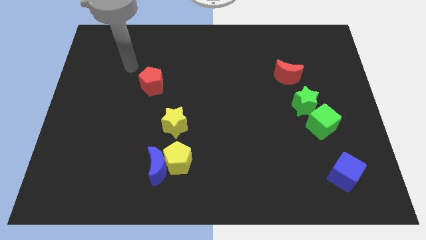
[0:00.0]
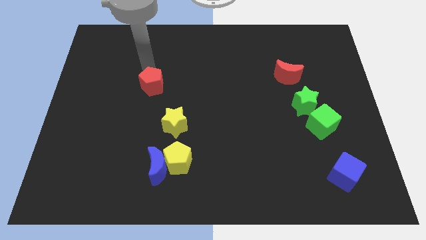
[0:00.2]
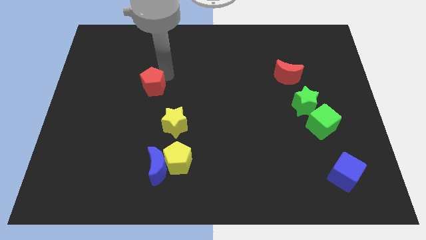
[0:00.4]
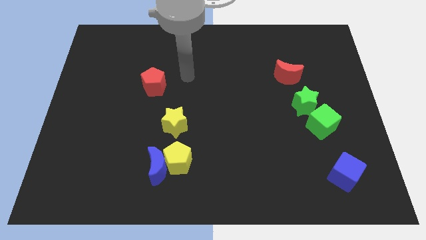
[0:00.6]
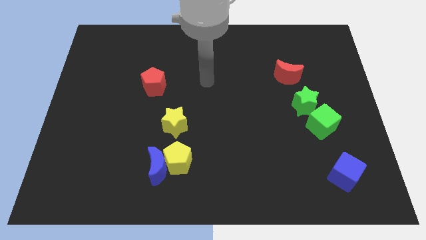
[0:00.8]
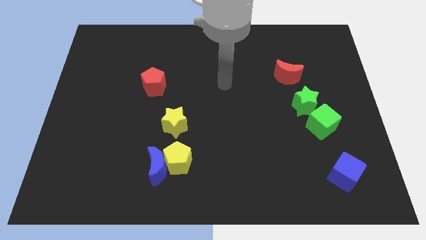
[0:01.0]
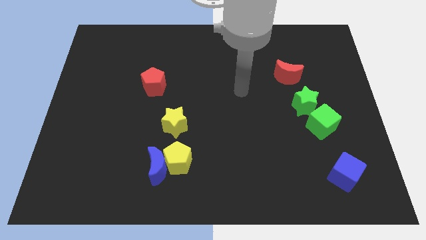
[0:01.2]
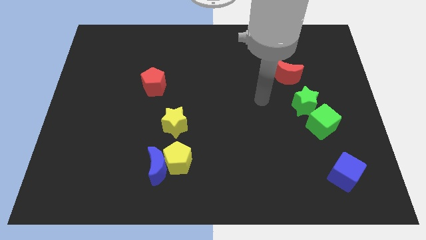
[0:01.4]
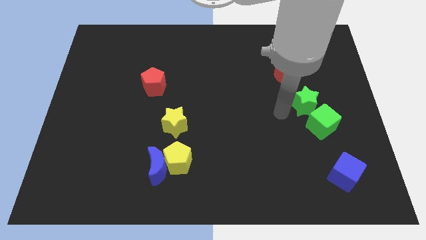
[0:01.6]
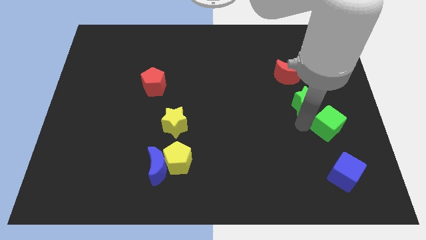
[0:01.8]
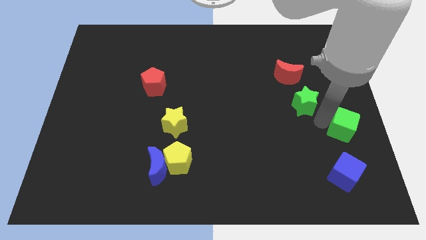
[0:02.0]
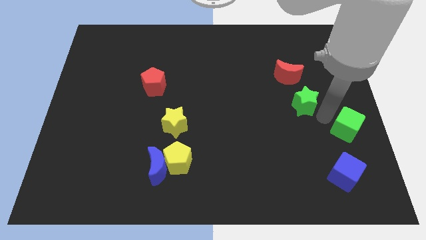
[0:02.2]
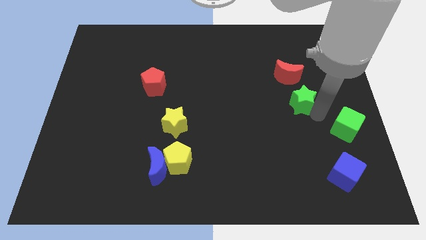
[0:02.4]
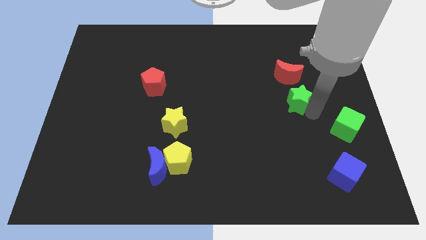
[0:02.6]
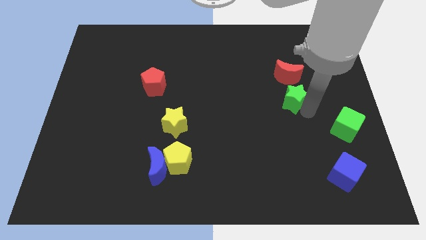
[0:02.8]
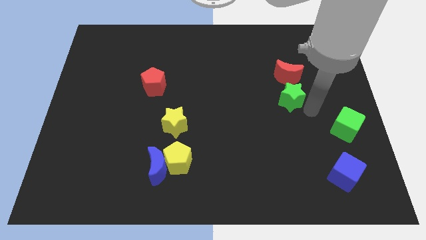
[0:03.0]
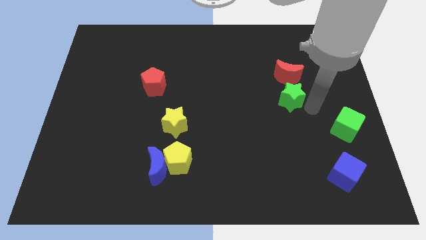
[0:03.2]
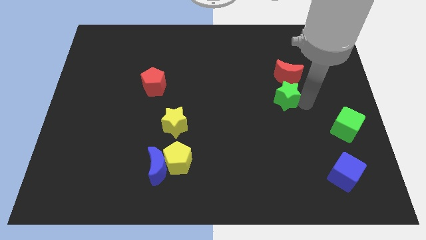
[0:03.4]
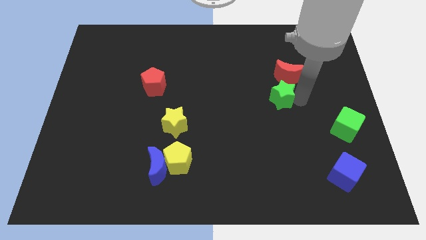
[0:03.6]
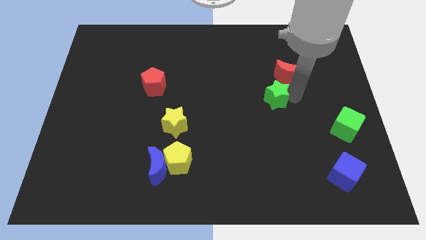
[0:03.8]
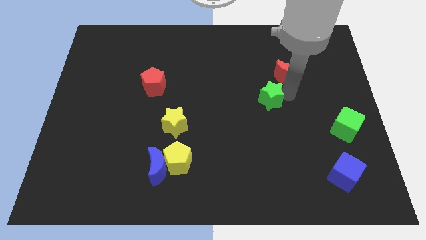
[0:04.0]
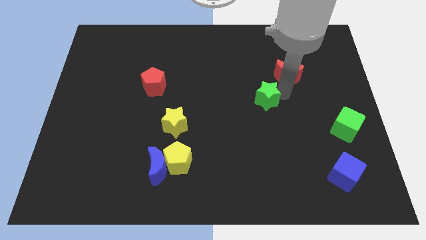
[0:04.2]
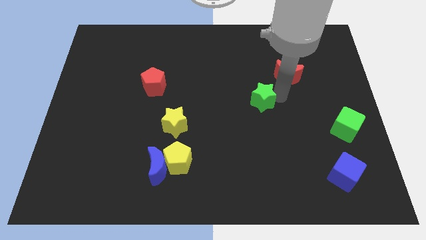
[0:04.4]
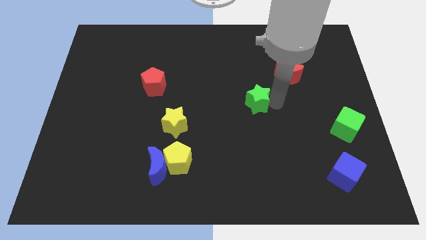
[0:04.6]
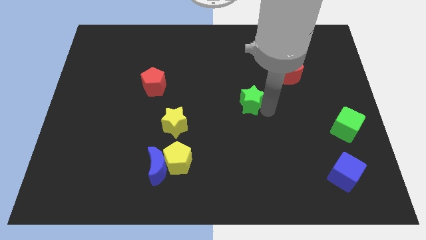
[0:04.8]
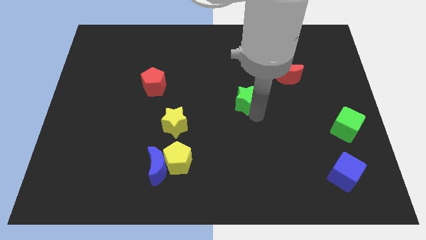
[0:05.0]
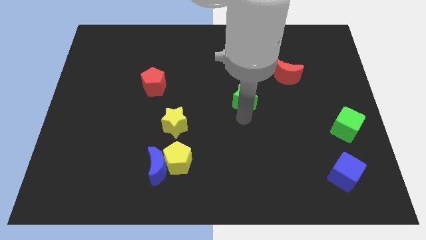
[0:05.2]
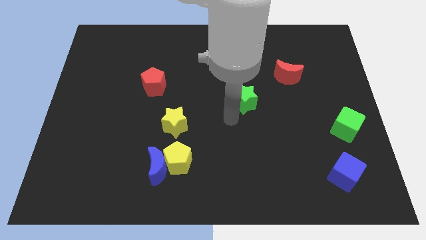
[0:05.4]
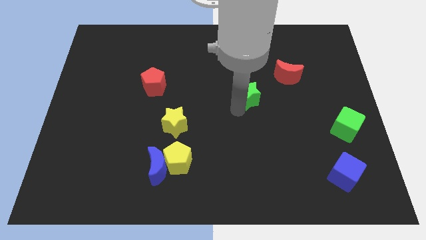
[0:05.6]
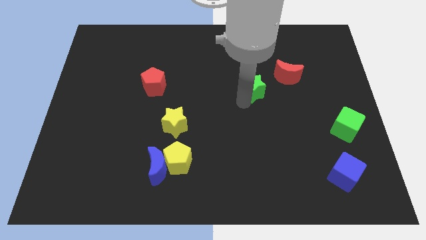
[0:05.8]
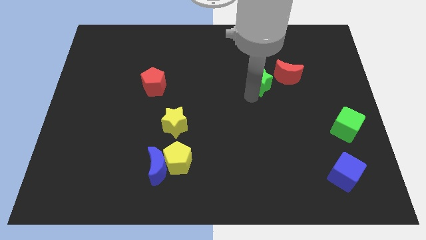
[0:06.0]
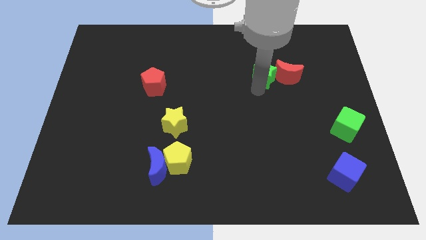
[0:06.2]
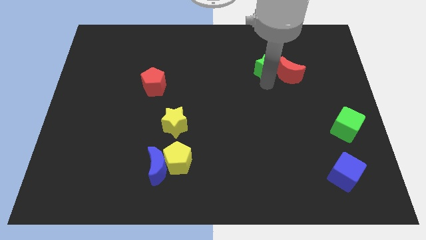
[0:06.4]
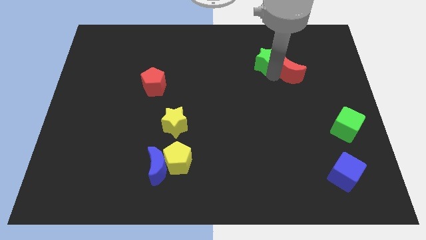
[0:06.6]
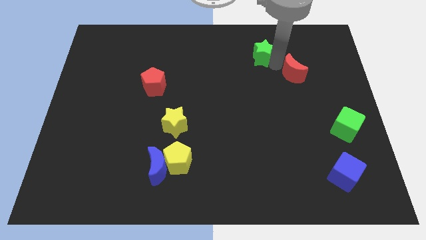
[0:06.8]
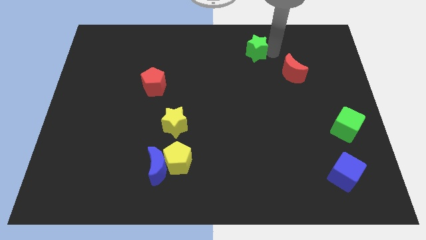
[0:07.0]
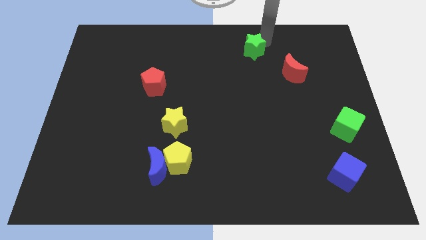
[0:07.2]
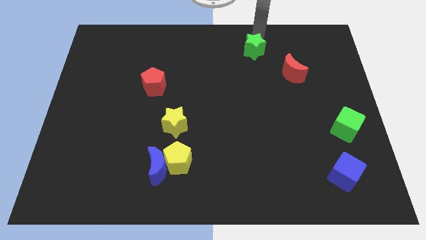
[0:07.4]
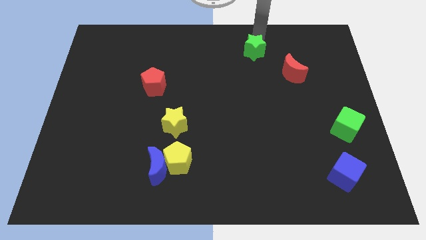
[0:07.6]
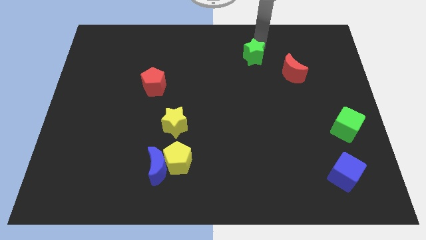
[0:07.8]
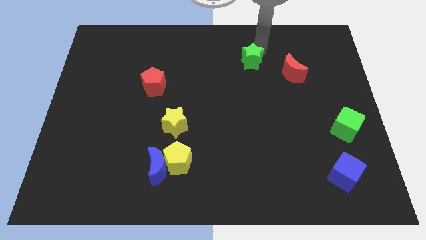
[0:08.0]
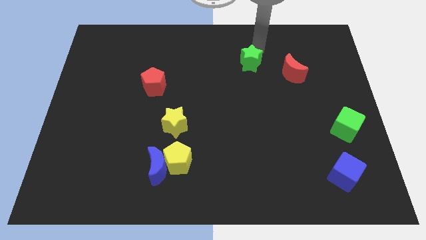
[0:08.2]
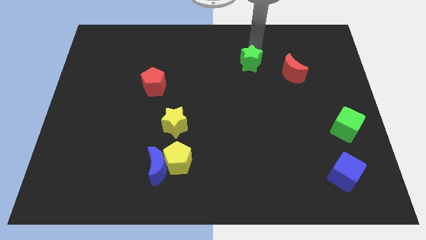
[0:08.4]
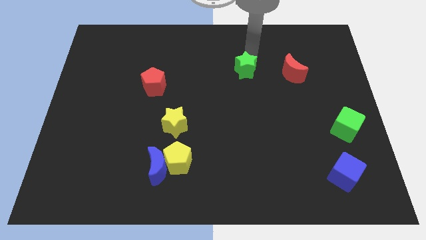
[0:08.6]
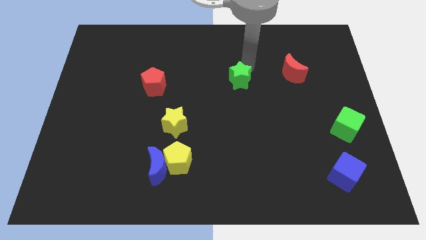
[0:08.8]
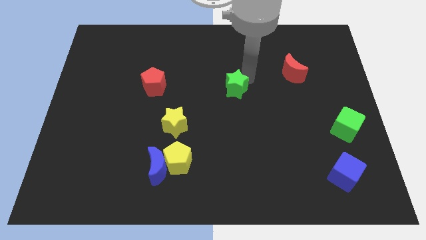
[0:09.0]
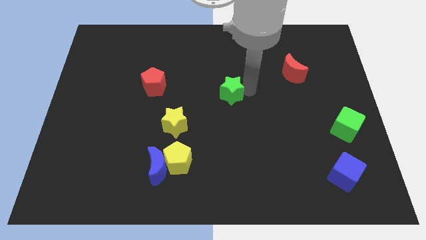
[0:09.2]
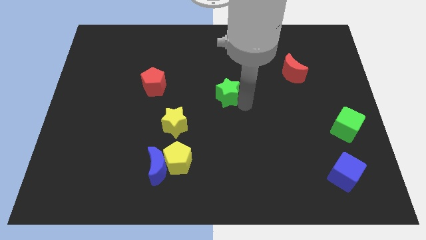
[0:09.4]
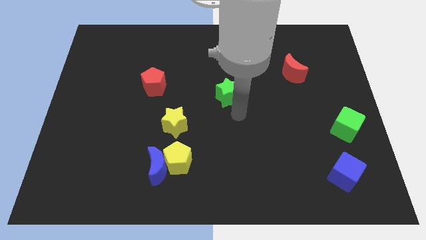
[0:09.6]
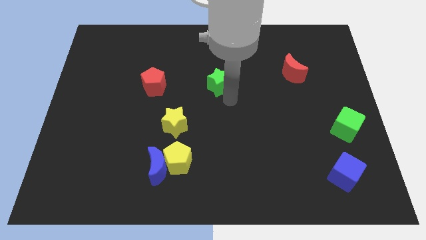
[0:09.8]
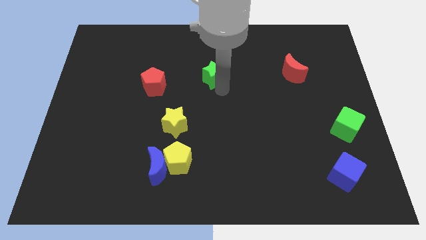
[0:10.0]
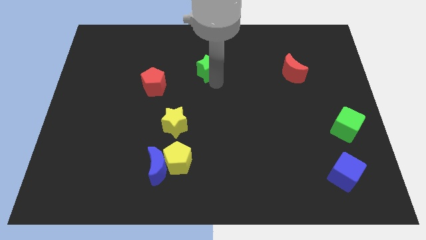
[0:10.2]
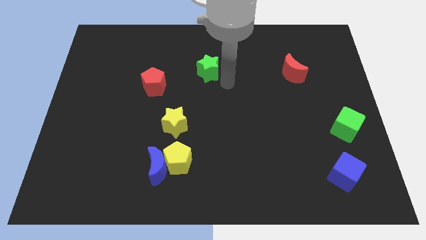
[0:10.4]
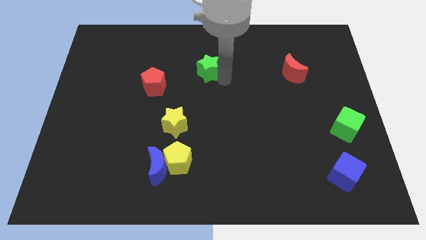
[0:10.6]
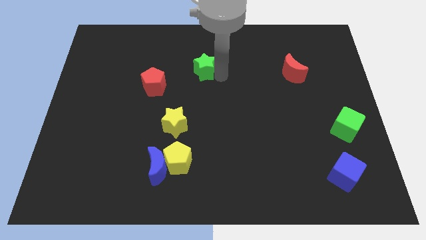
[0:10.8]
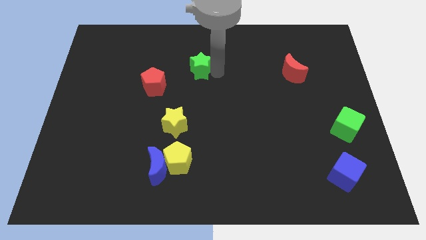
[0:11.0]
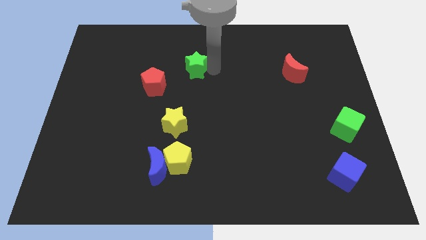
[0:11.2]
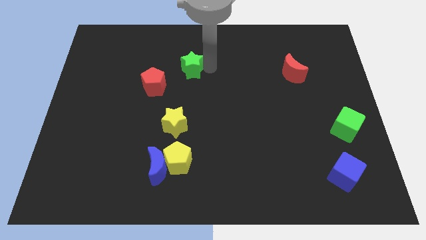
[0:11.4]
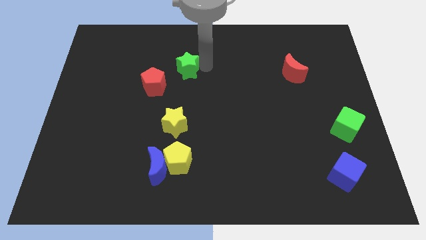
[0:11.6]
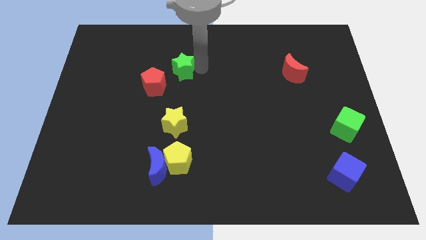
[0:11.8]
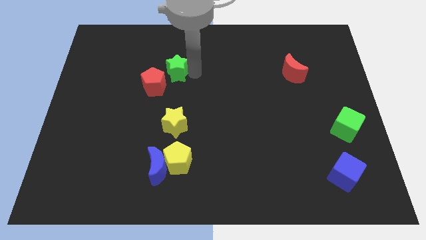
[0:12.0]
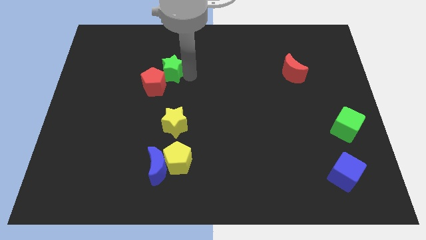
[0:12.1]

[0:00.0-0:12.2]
slide the green star to the top side of the red pentagon

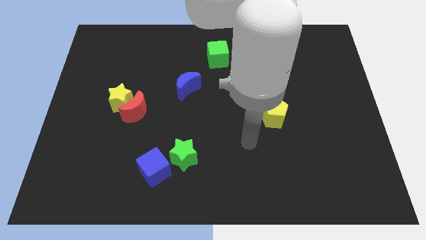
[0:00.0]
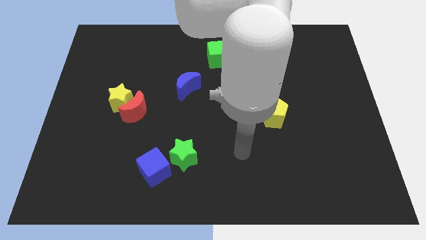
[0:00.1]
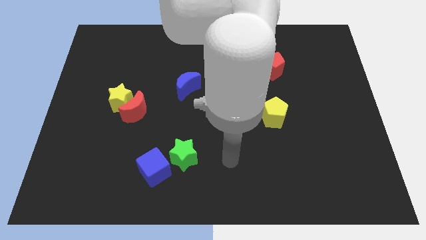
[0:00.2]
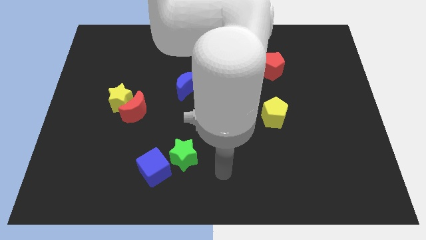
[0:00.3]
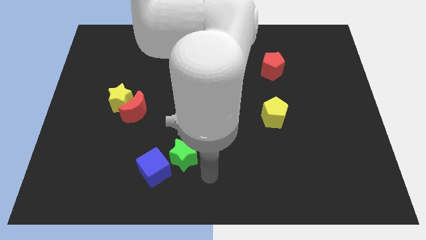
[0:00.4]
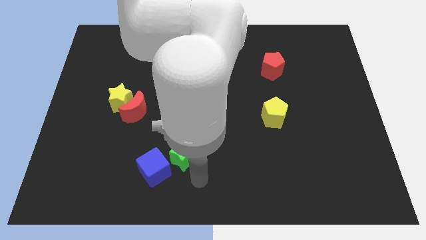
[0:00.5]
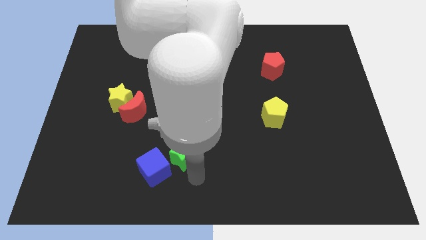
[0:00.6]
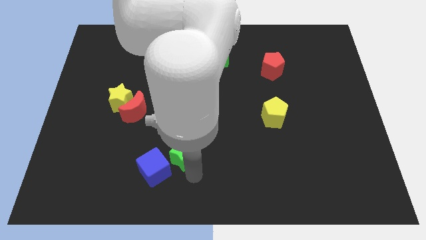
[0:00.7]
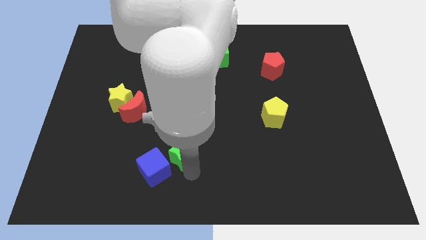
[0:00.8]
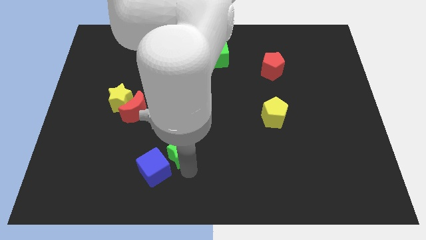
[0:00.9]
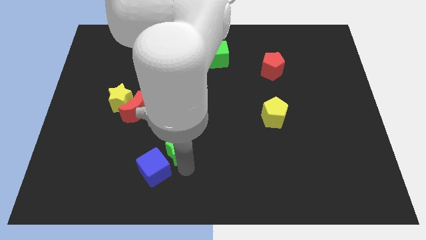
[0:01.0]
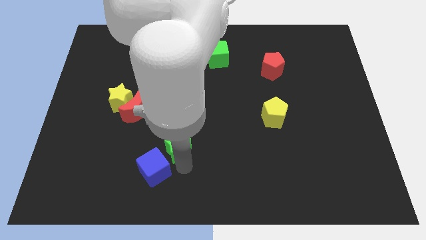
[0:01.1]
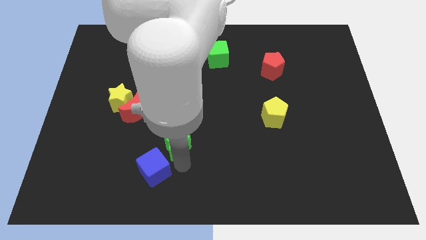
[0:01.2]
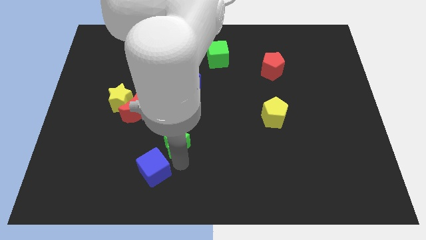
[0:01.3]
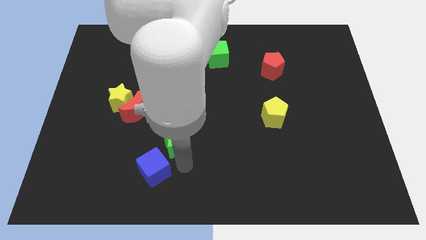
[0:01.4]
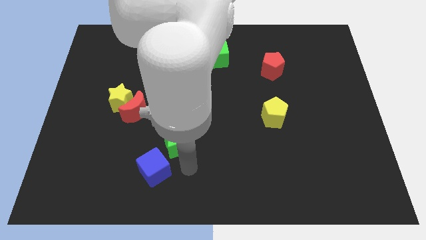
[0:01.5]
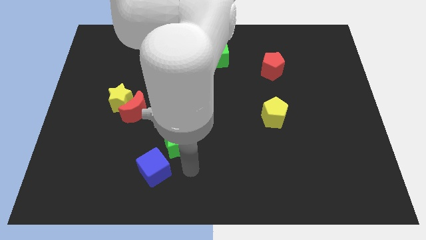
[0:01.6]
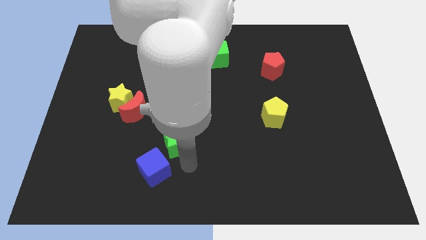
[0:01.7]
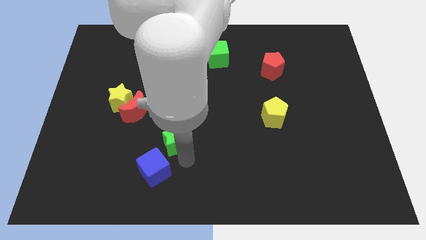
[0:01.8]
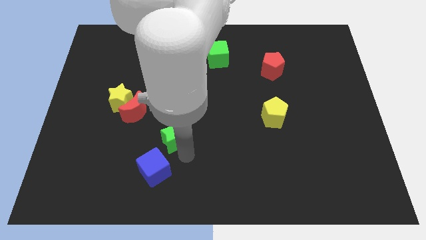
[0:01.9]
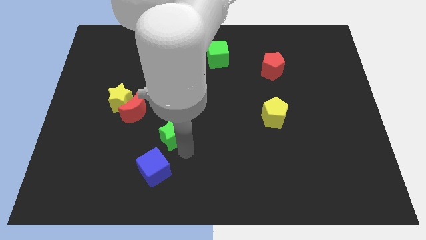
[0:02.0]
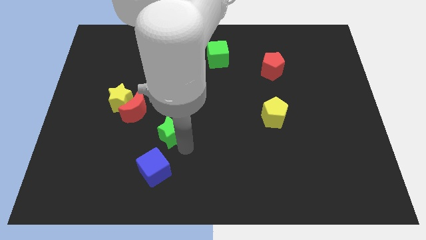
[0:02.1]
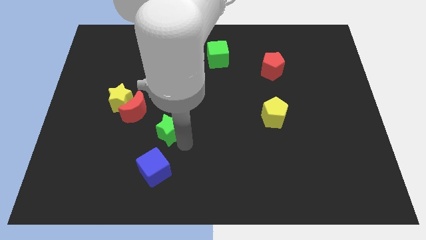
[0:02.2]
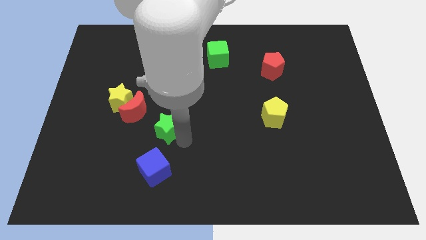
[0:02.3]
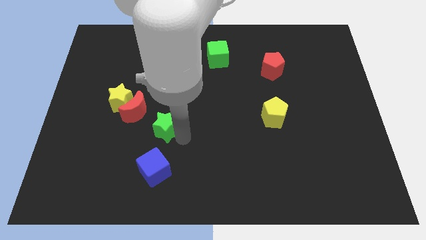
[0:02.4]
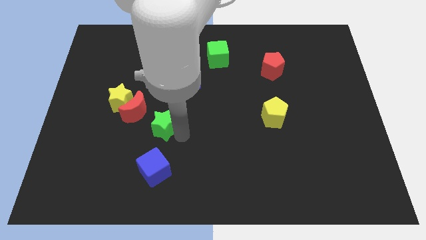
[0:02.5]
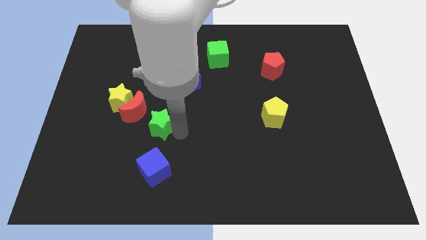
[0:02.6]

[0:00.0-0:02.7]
move the green star to the bottom right side of the yellow star
